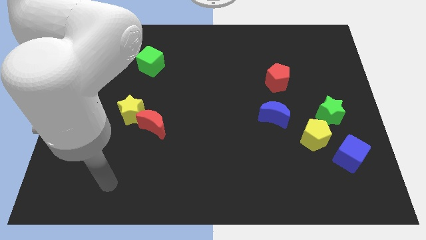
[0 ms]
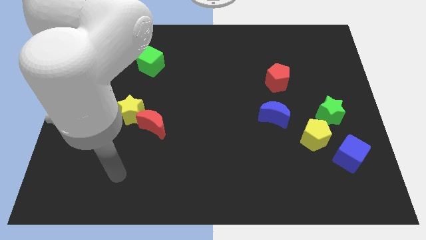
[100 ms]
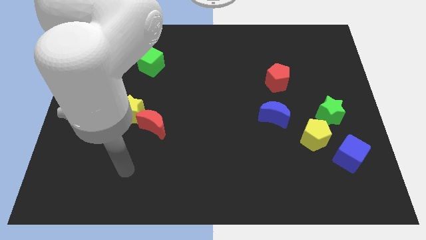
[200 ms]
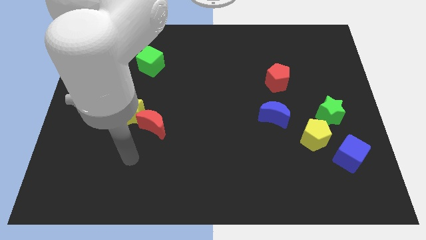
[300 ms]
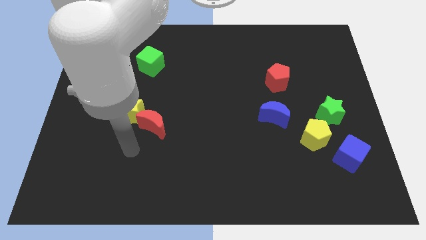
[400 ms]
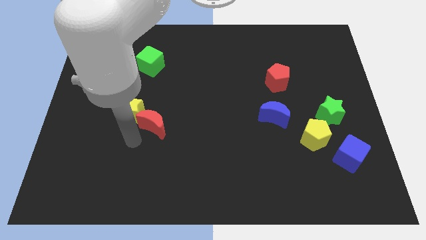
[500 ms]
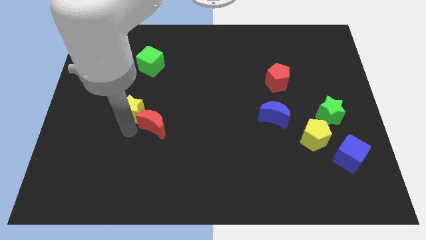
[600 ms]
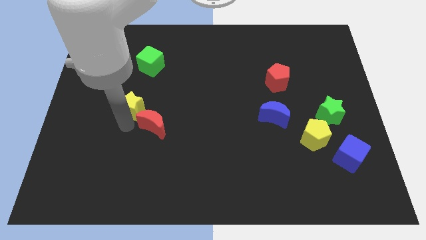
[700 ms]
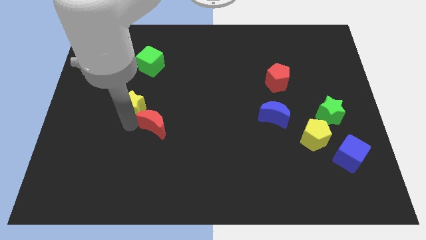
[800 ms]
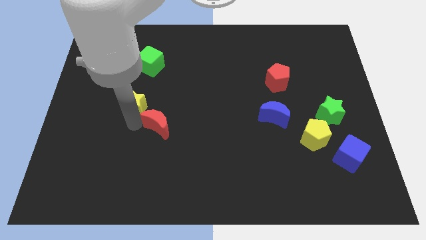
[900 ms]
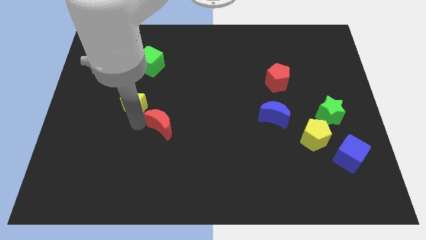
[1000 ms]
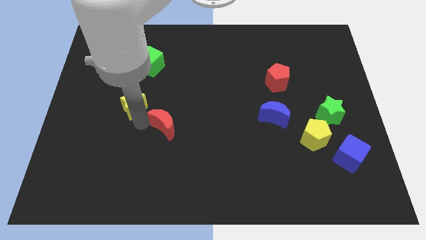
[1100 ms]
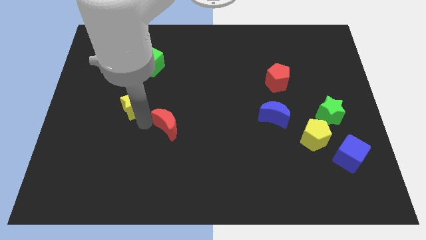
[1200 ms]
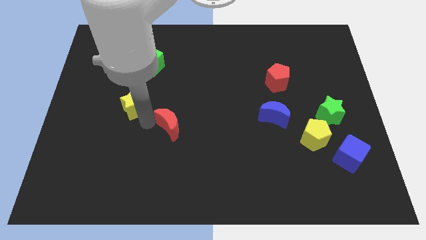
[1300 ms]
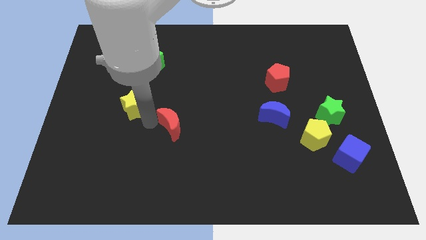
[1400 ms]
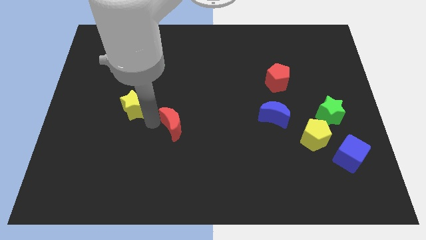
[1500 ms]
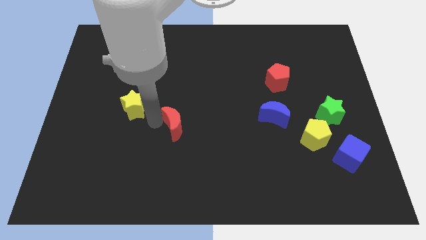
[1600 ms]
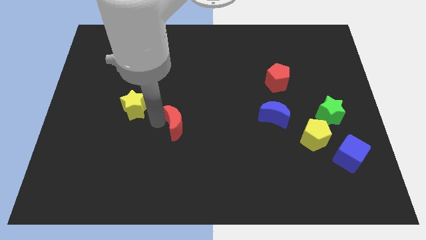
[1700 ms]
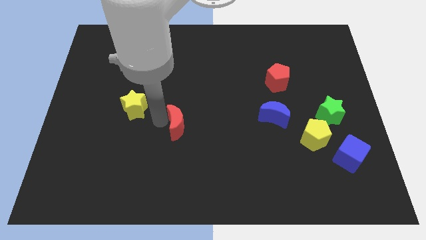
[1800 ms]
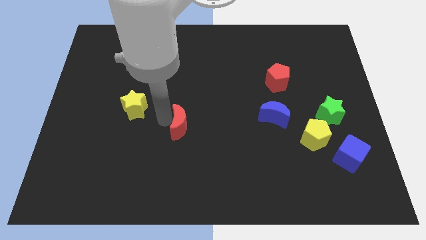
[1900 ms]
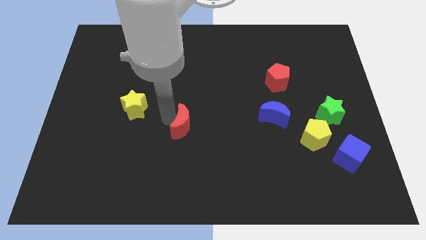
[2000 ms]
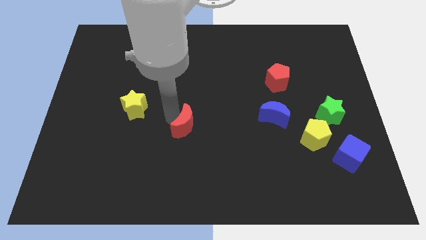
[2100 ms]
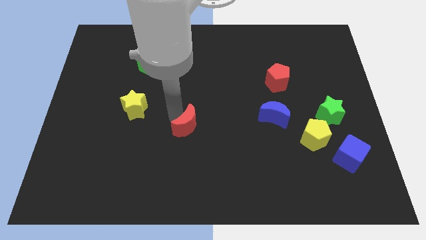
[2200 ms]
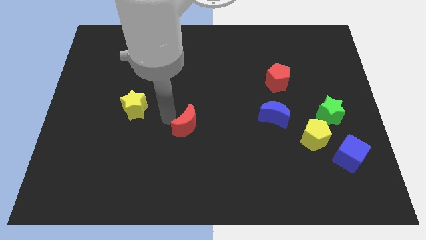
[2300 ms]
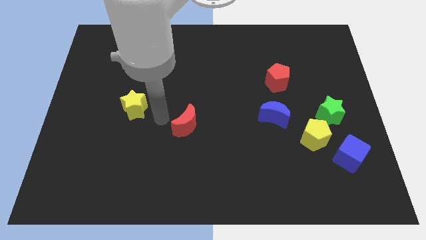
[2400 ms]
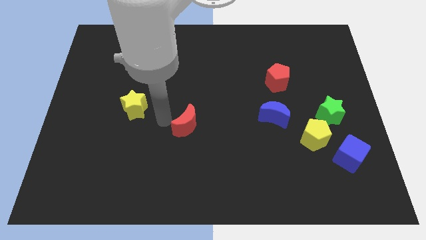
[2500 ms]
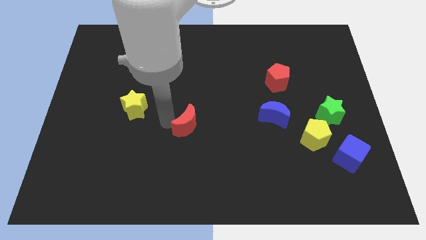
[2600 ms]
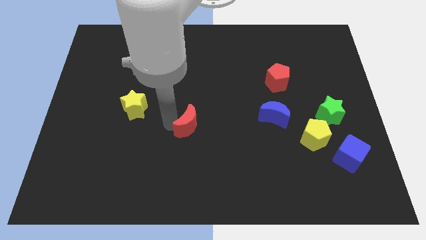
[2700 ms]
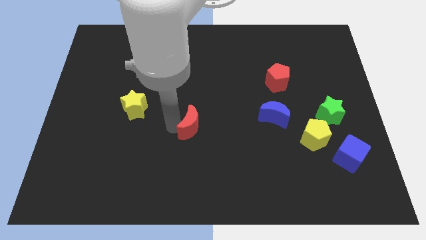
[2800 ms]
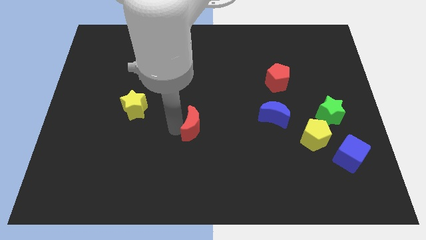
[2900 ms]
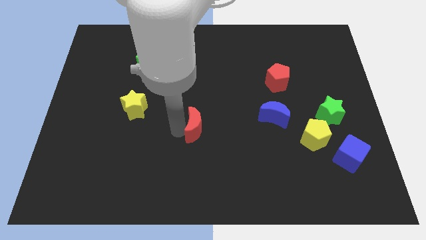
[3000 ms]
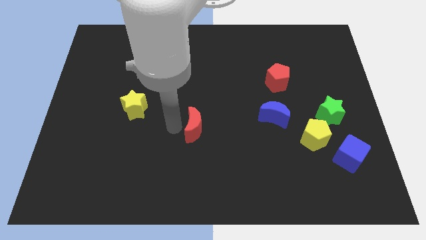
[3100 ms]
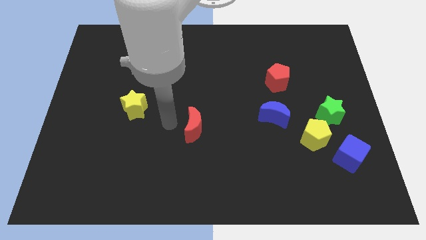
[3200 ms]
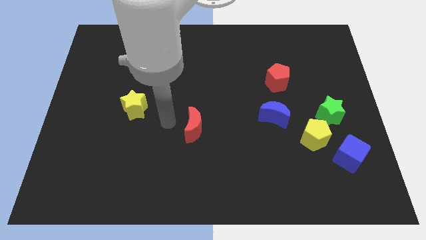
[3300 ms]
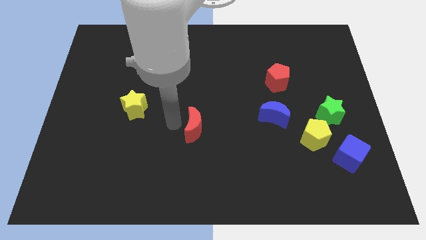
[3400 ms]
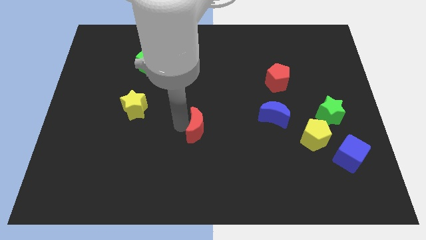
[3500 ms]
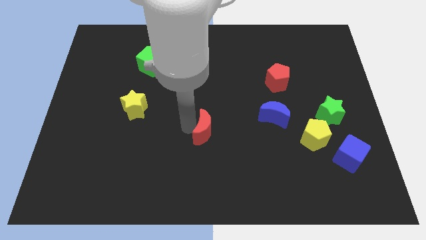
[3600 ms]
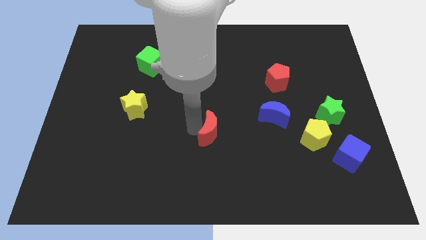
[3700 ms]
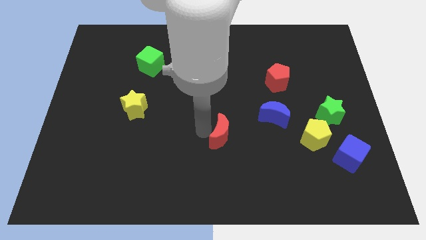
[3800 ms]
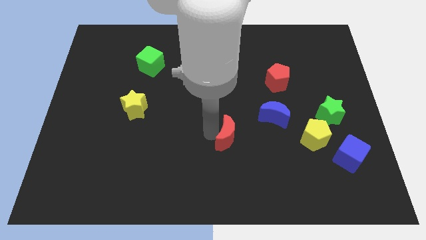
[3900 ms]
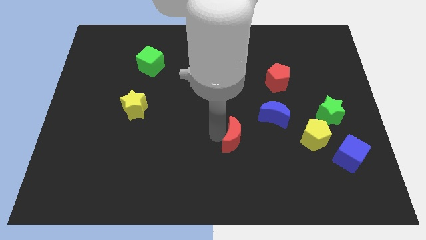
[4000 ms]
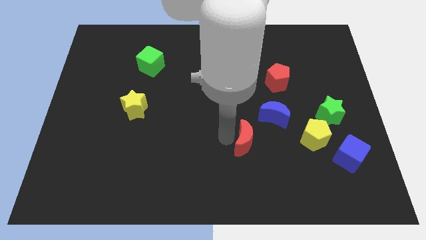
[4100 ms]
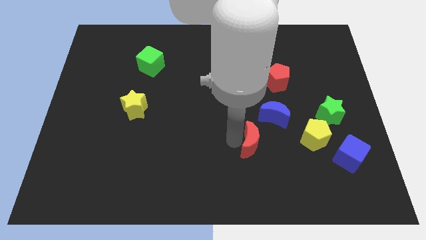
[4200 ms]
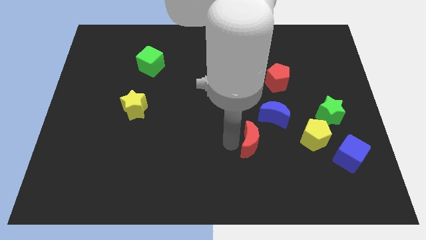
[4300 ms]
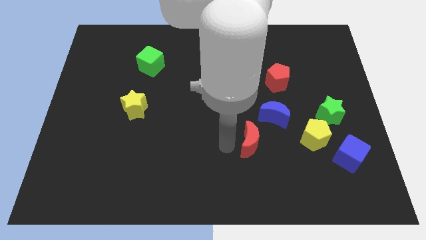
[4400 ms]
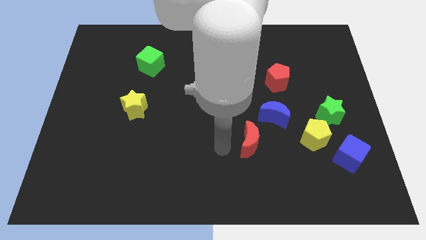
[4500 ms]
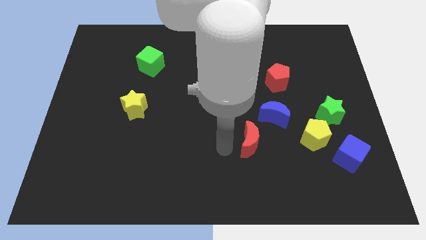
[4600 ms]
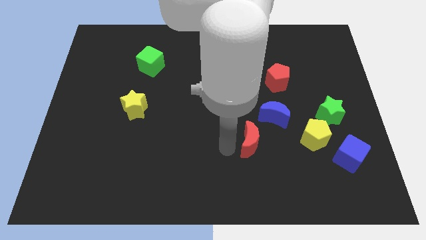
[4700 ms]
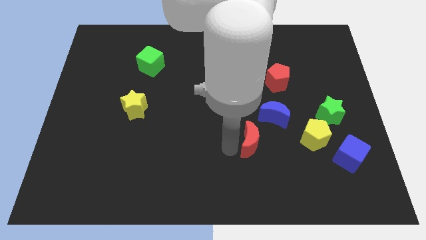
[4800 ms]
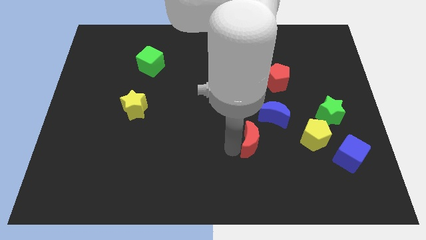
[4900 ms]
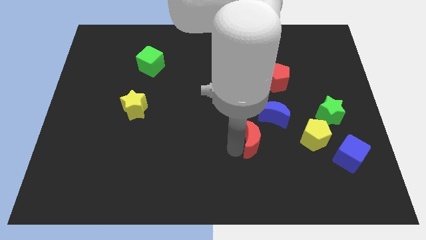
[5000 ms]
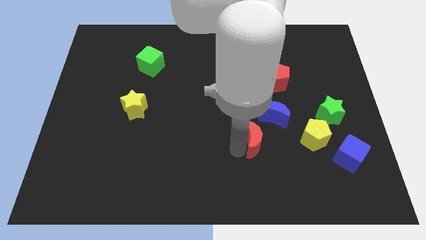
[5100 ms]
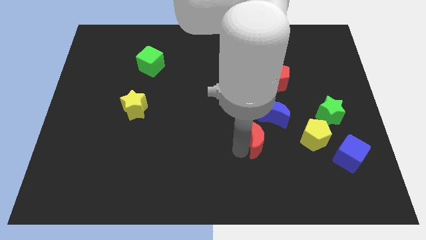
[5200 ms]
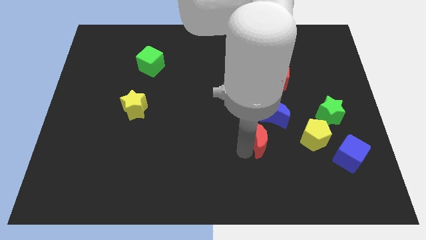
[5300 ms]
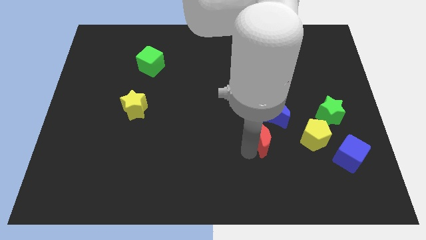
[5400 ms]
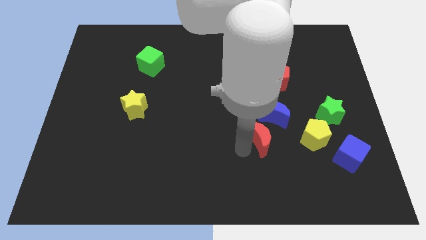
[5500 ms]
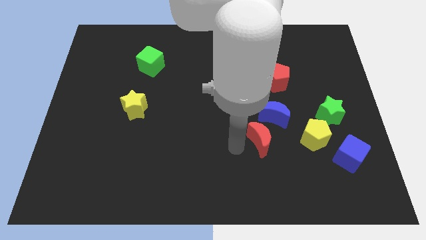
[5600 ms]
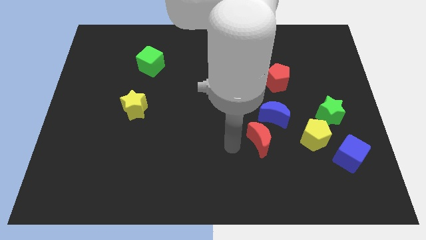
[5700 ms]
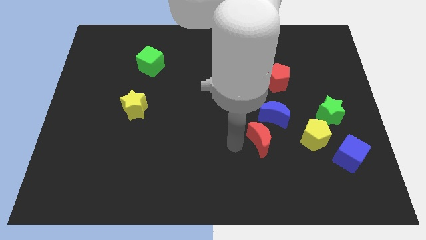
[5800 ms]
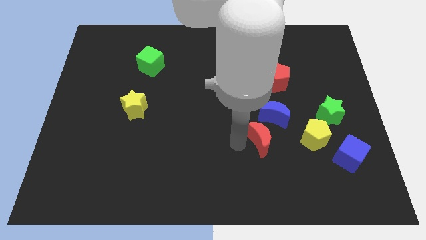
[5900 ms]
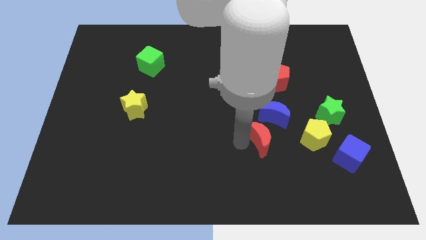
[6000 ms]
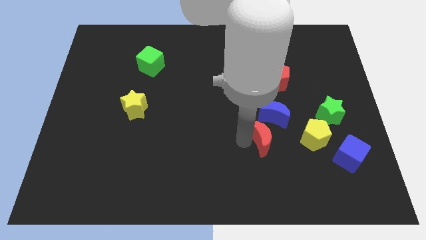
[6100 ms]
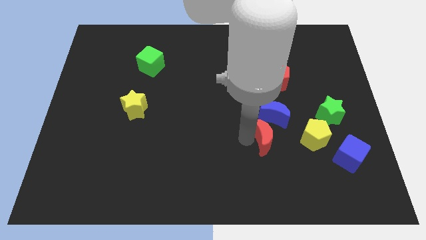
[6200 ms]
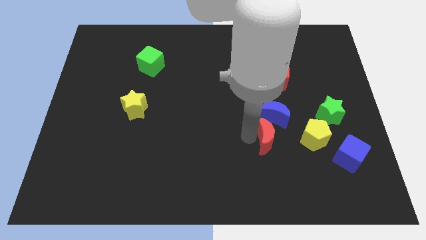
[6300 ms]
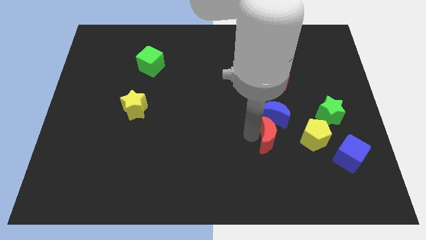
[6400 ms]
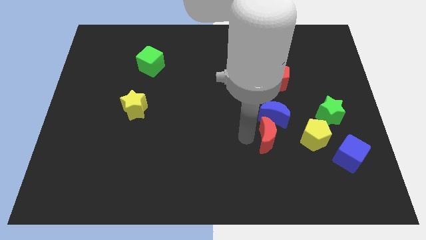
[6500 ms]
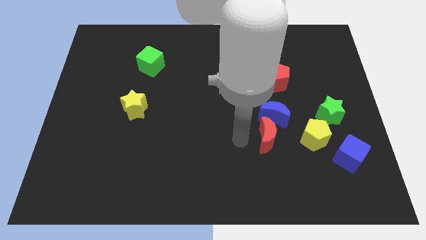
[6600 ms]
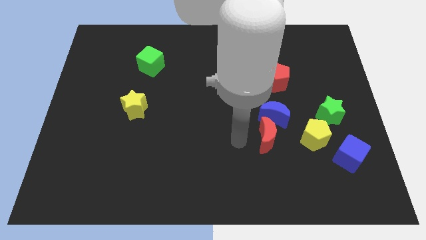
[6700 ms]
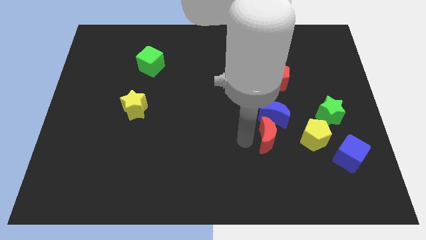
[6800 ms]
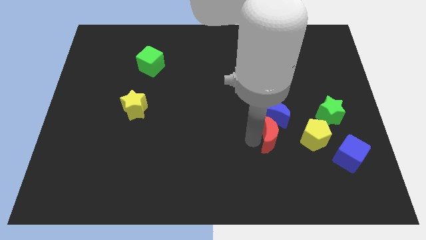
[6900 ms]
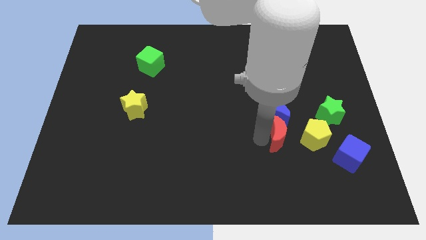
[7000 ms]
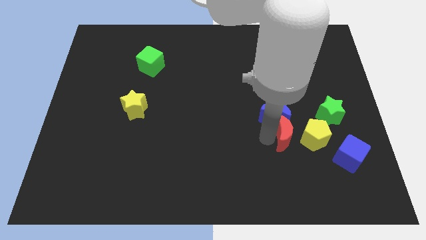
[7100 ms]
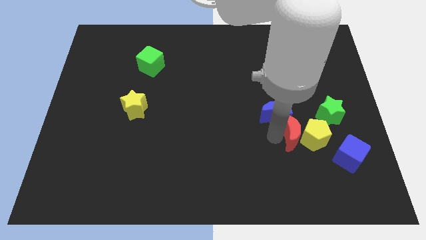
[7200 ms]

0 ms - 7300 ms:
push the red moon next to the yellow pentagon
